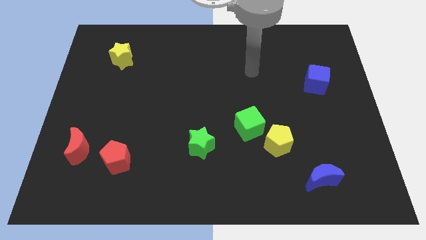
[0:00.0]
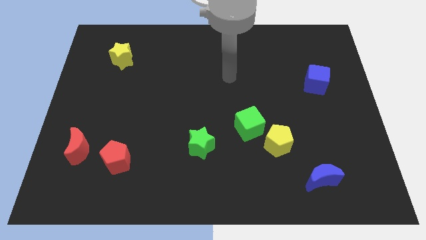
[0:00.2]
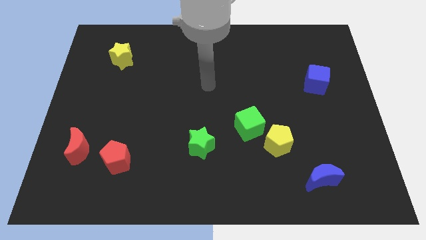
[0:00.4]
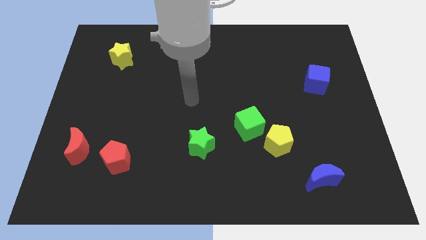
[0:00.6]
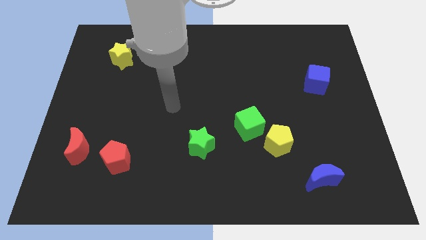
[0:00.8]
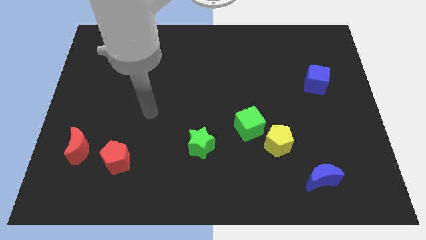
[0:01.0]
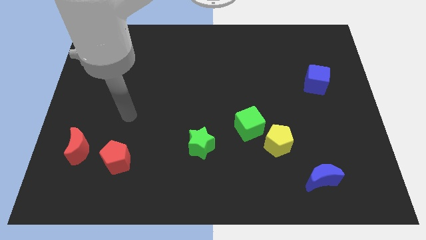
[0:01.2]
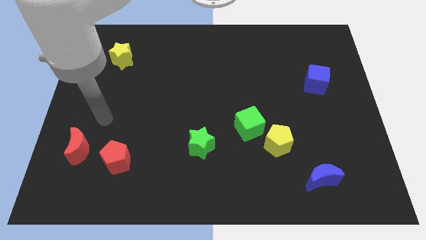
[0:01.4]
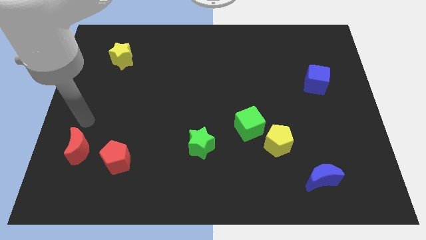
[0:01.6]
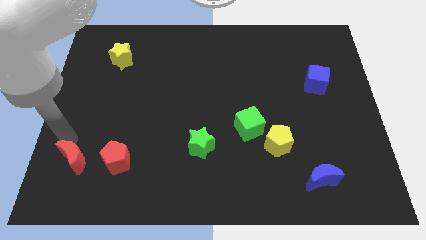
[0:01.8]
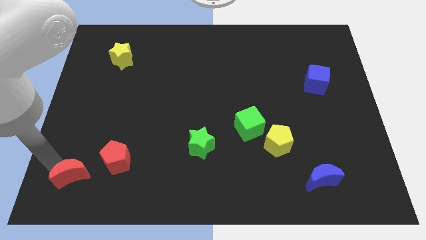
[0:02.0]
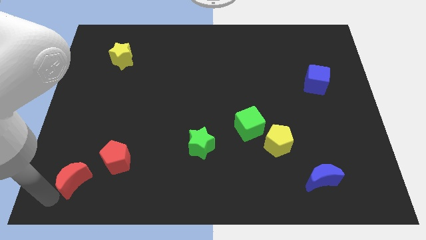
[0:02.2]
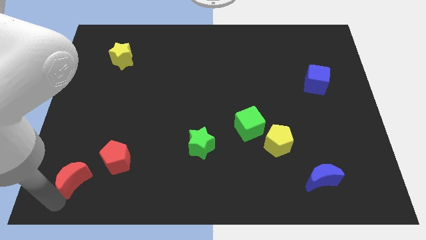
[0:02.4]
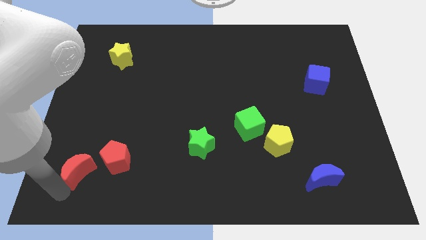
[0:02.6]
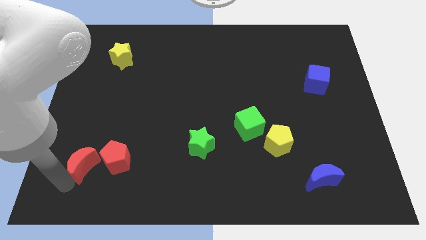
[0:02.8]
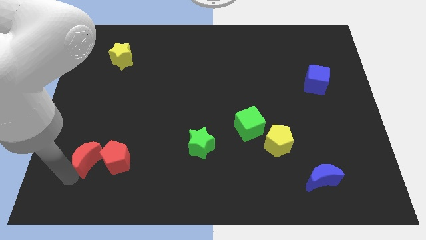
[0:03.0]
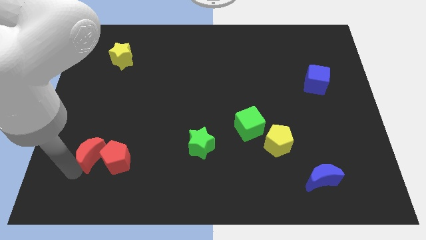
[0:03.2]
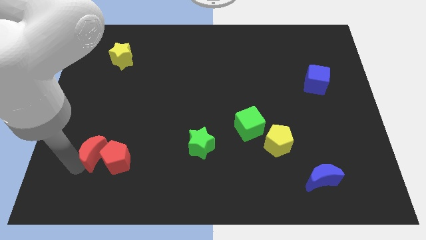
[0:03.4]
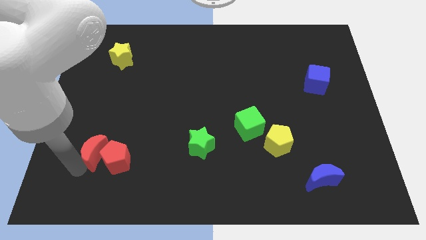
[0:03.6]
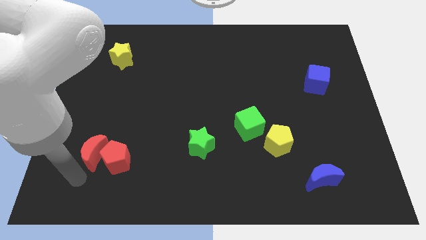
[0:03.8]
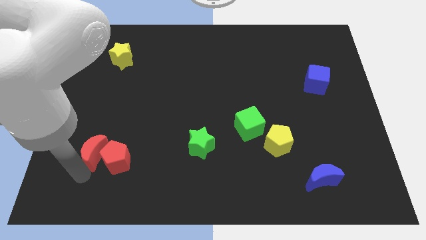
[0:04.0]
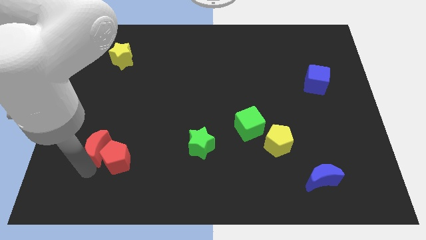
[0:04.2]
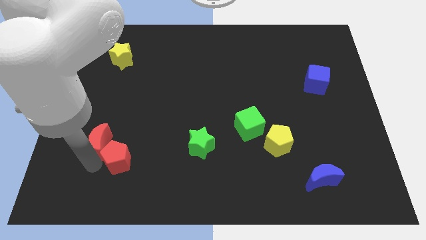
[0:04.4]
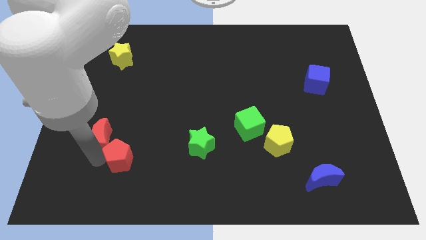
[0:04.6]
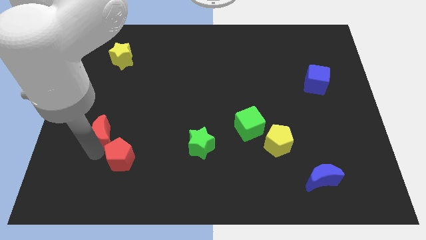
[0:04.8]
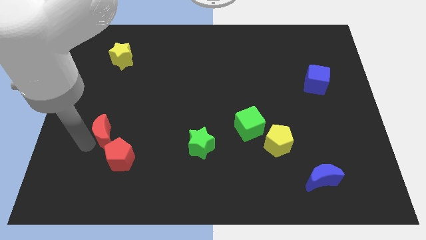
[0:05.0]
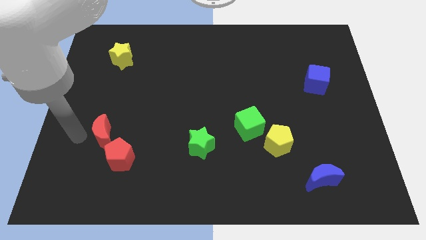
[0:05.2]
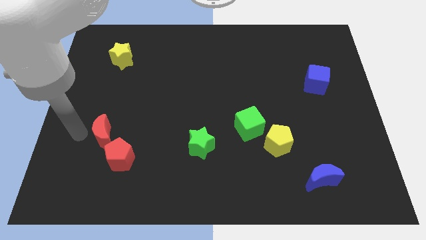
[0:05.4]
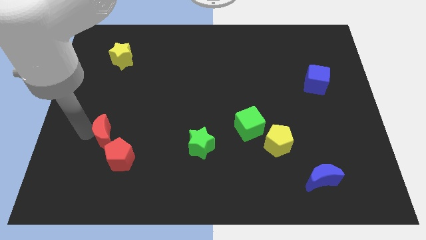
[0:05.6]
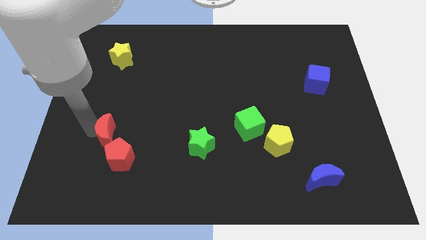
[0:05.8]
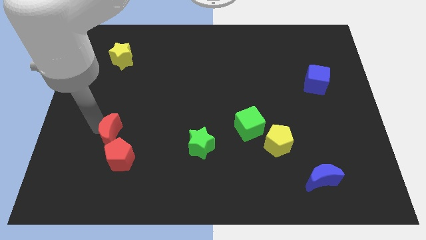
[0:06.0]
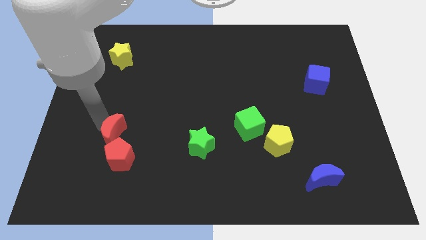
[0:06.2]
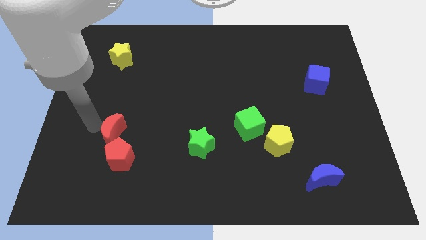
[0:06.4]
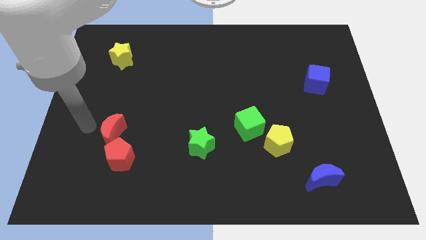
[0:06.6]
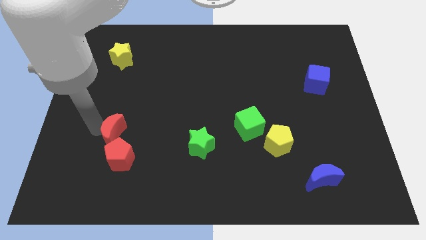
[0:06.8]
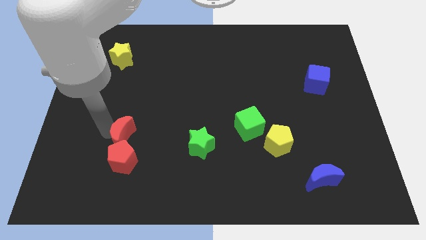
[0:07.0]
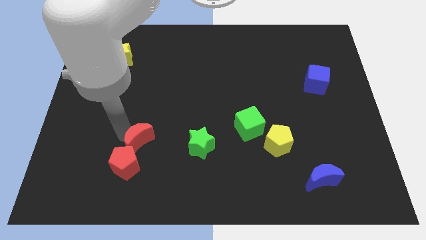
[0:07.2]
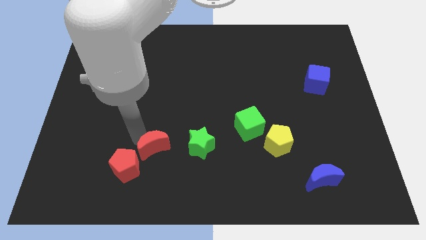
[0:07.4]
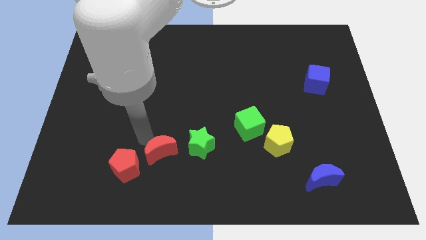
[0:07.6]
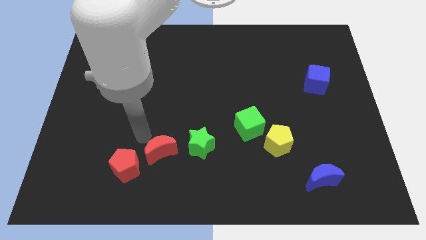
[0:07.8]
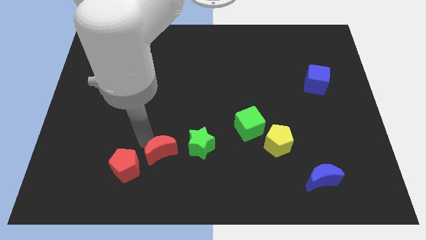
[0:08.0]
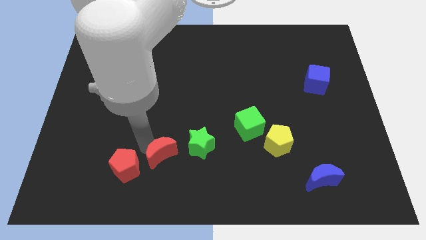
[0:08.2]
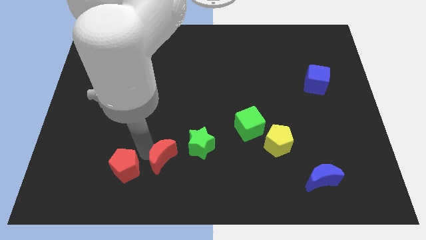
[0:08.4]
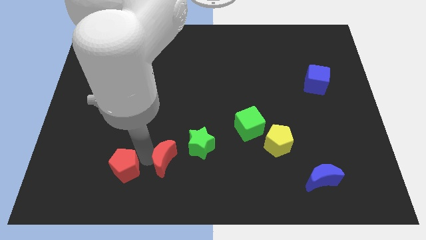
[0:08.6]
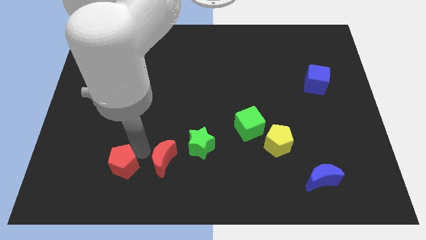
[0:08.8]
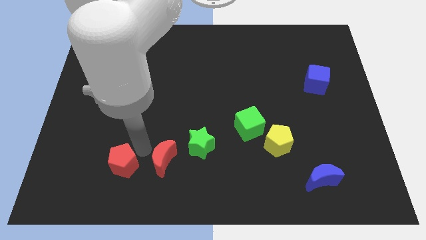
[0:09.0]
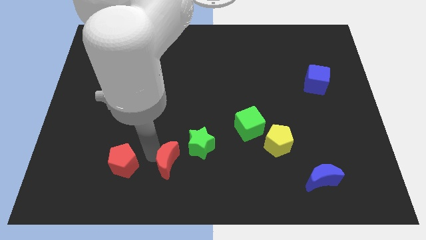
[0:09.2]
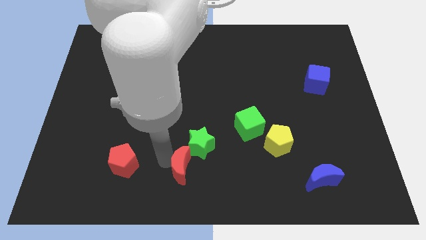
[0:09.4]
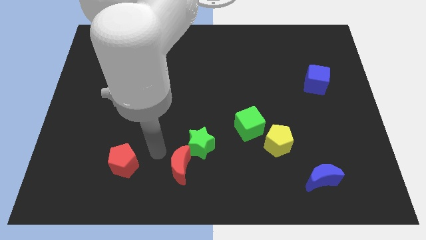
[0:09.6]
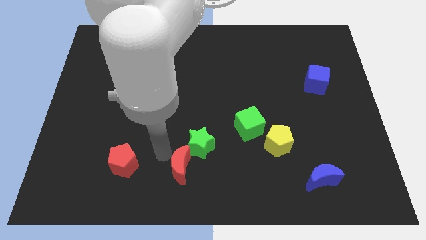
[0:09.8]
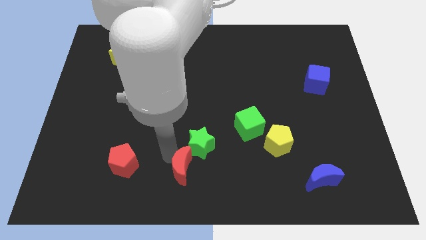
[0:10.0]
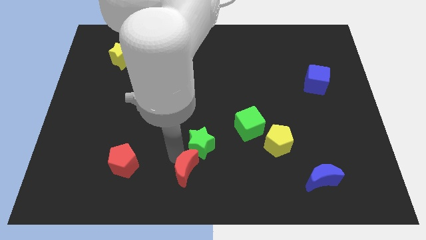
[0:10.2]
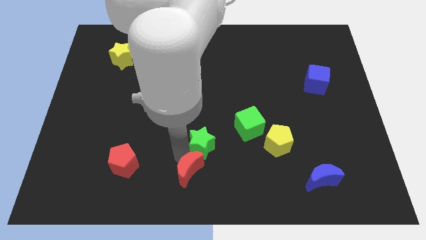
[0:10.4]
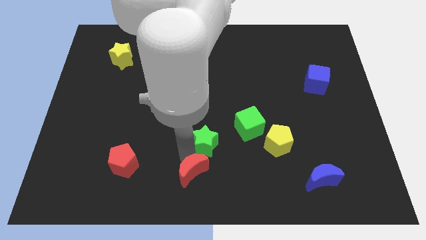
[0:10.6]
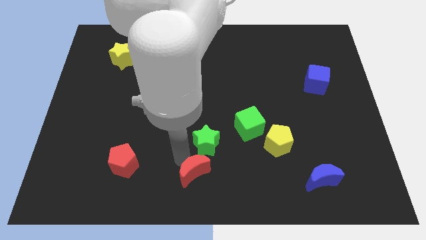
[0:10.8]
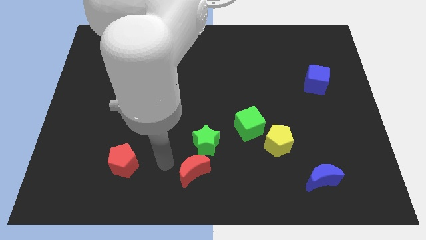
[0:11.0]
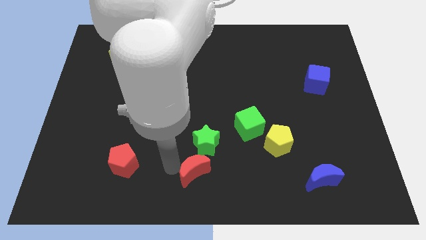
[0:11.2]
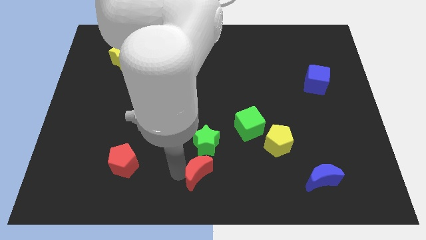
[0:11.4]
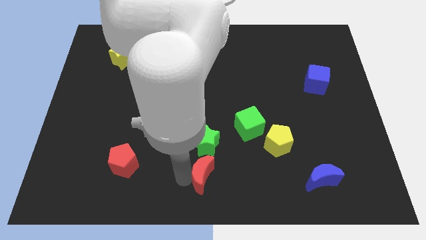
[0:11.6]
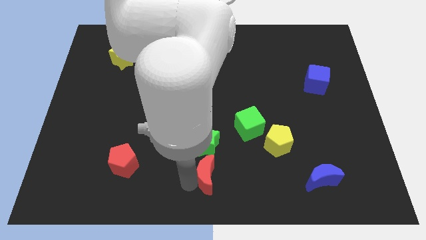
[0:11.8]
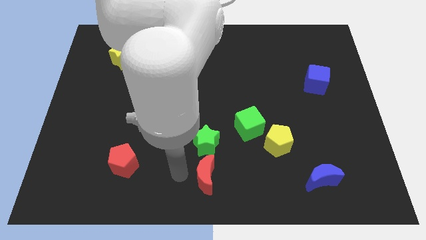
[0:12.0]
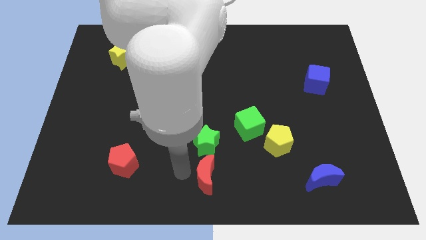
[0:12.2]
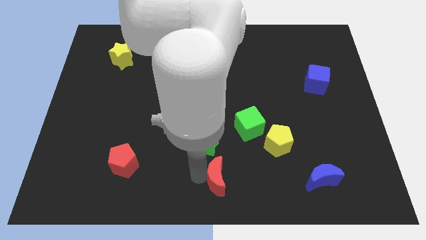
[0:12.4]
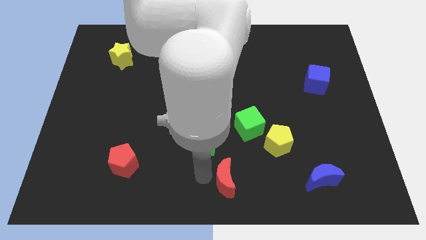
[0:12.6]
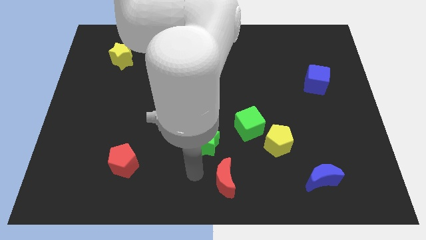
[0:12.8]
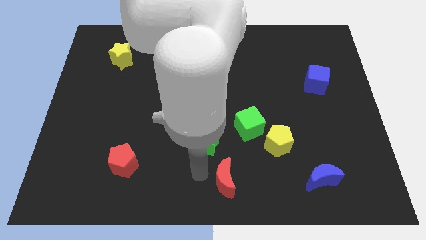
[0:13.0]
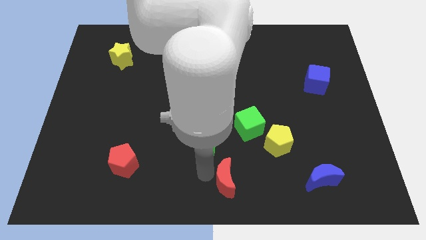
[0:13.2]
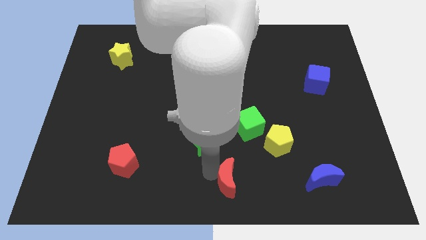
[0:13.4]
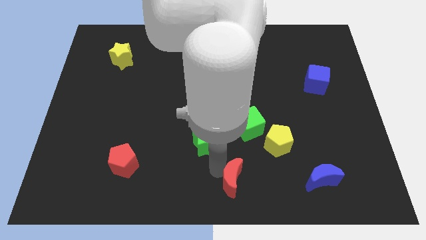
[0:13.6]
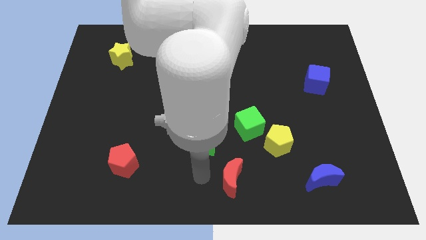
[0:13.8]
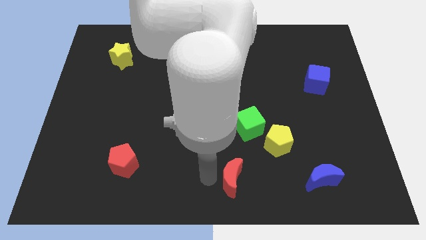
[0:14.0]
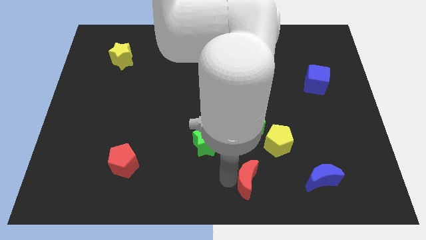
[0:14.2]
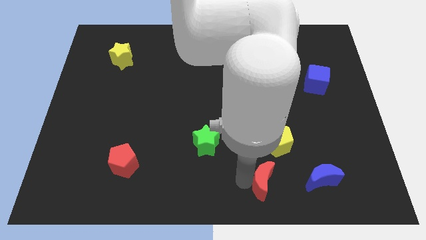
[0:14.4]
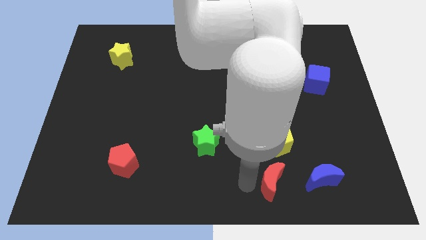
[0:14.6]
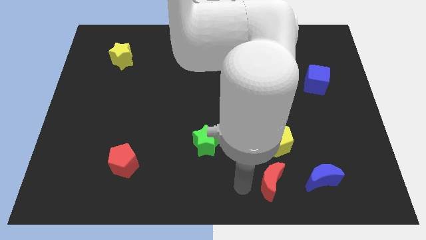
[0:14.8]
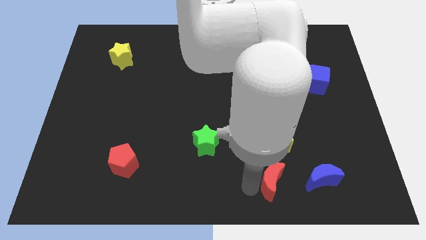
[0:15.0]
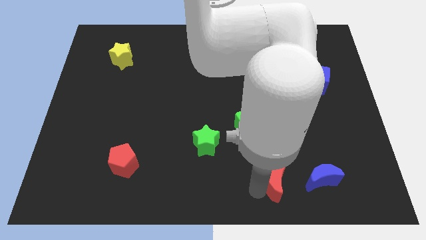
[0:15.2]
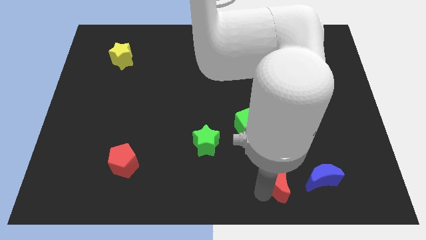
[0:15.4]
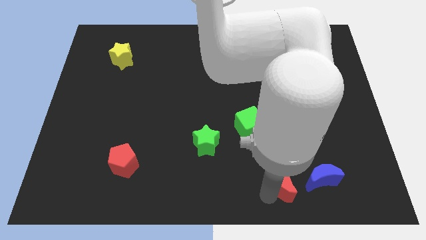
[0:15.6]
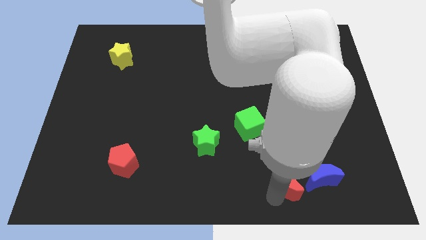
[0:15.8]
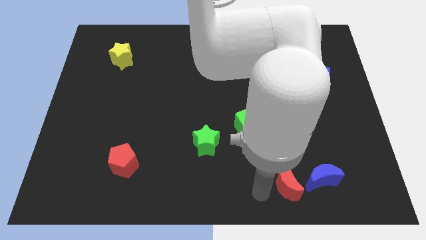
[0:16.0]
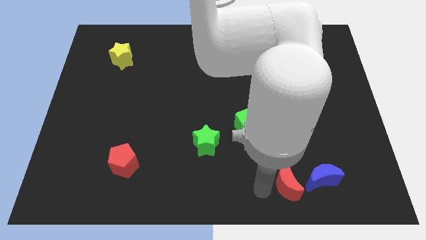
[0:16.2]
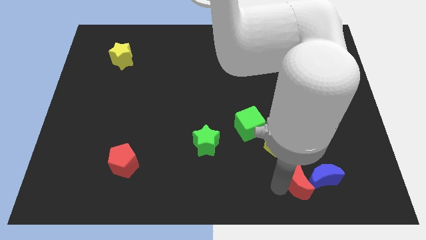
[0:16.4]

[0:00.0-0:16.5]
slide the red moon to the blue moon
